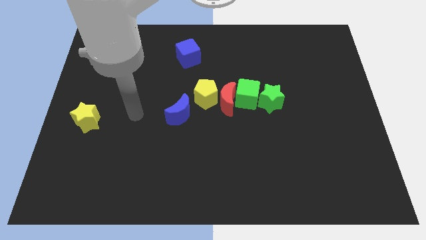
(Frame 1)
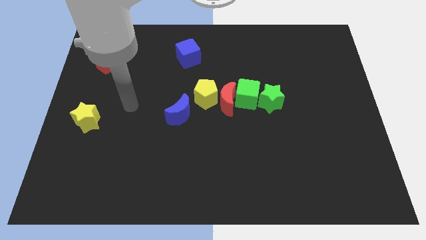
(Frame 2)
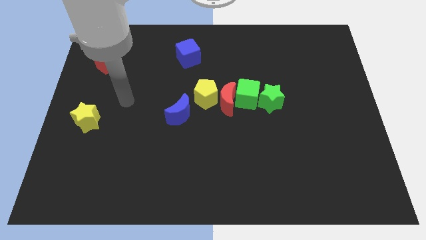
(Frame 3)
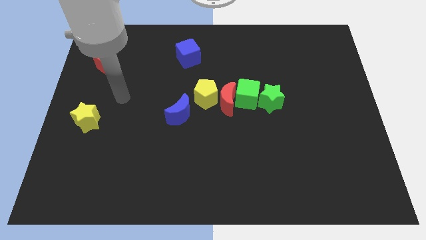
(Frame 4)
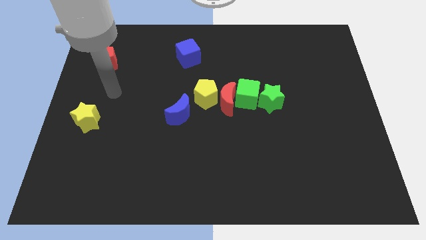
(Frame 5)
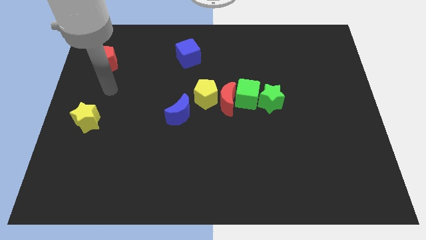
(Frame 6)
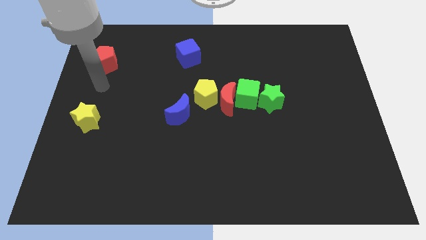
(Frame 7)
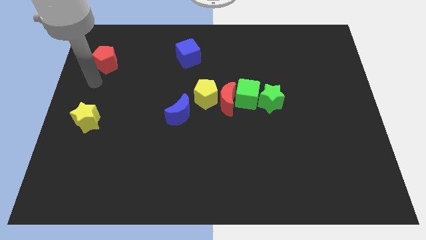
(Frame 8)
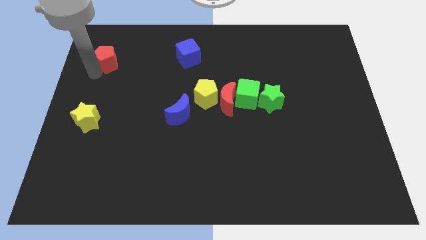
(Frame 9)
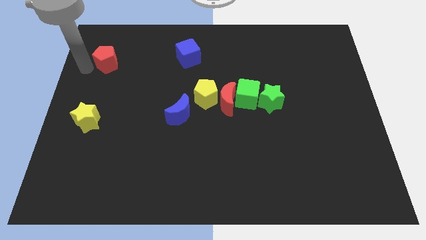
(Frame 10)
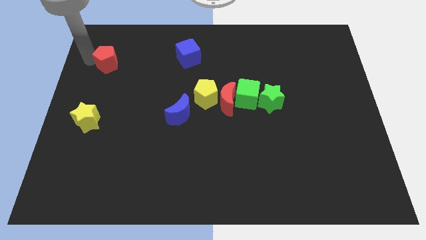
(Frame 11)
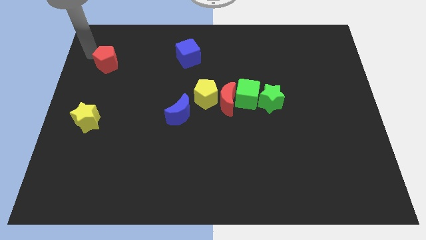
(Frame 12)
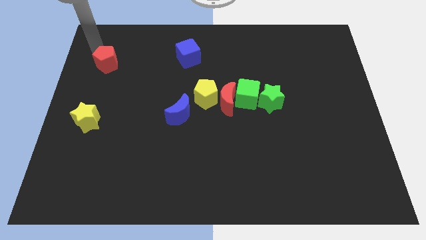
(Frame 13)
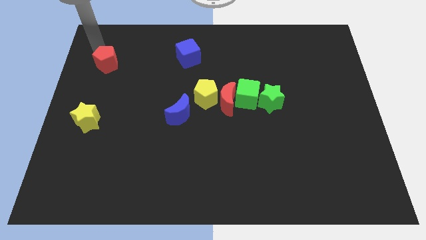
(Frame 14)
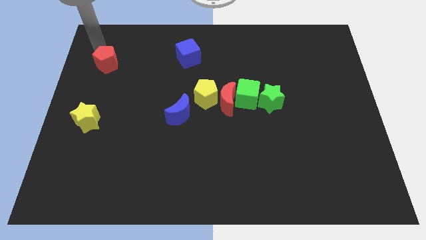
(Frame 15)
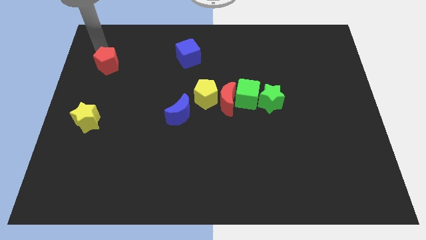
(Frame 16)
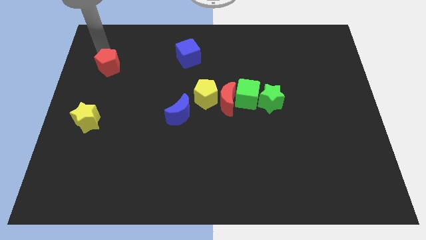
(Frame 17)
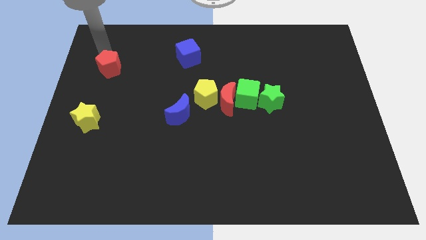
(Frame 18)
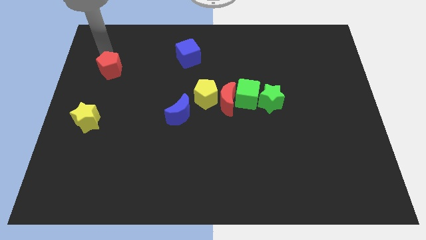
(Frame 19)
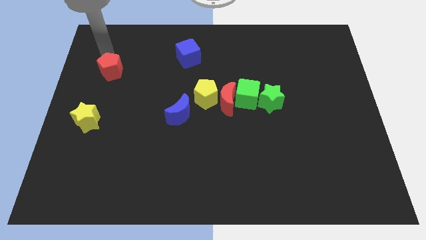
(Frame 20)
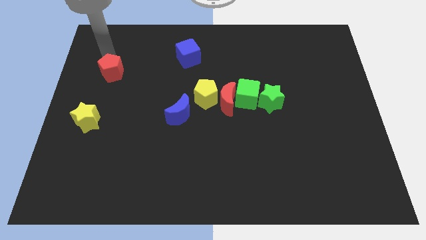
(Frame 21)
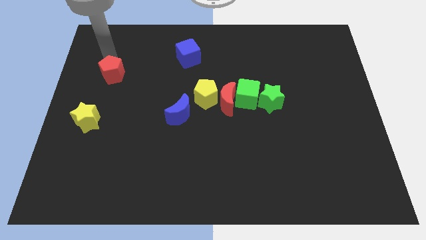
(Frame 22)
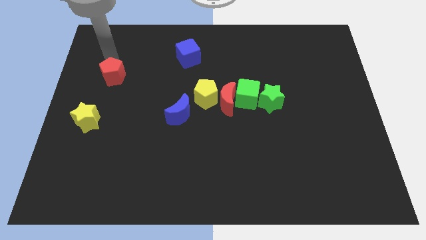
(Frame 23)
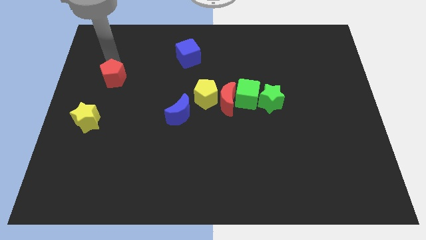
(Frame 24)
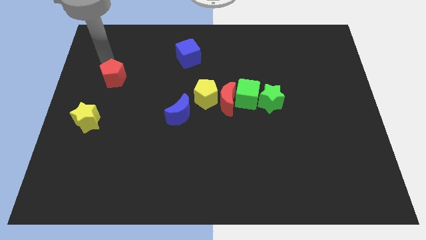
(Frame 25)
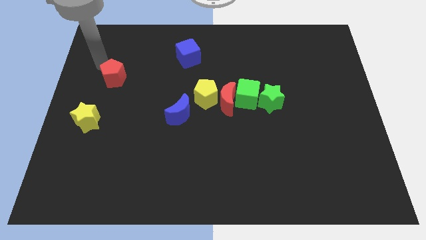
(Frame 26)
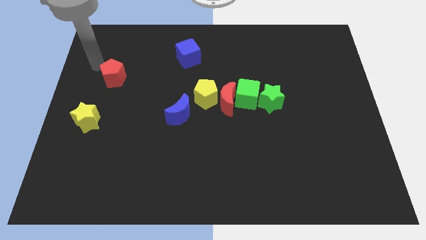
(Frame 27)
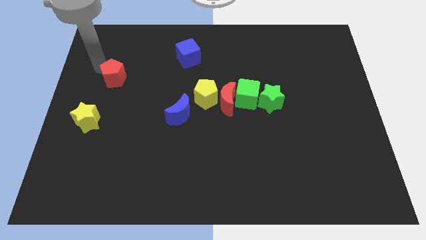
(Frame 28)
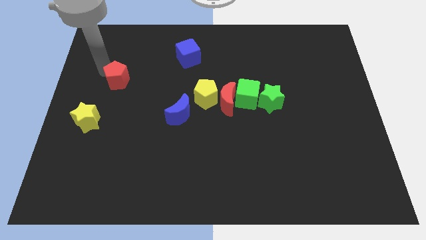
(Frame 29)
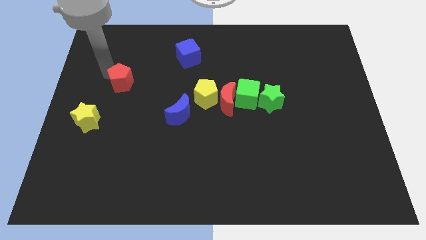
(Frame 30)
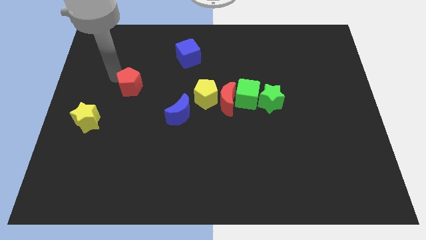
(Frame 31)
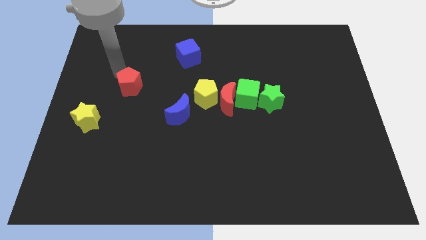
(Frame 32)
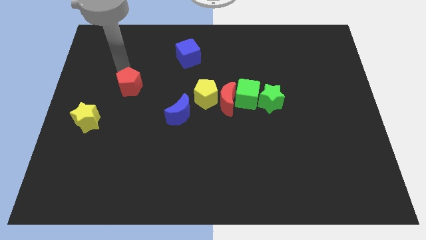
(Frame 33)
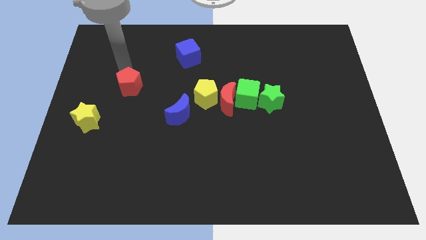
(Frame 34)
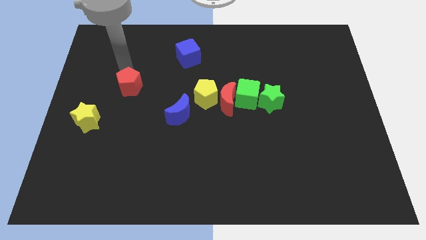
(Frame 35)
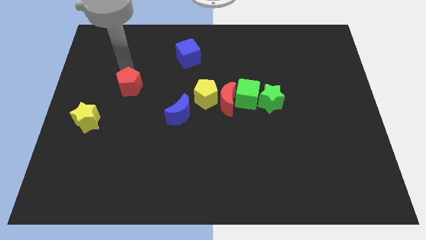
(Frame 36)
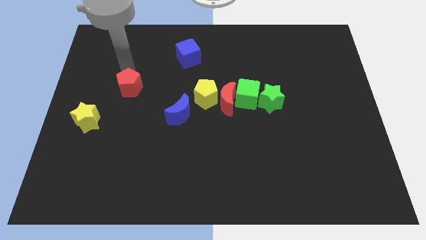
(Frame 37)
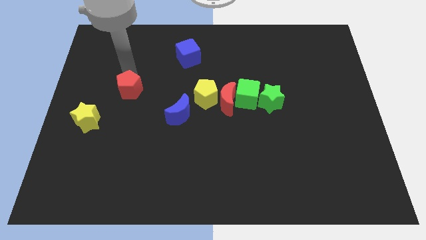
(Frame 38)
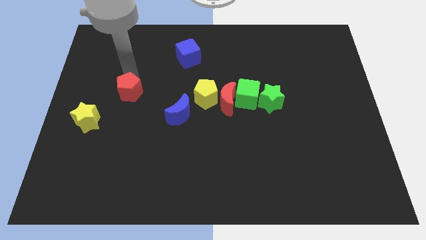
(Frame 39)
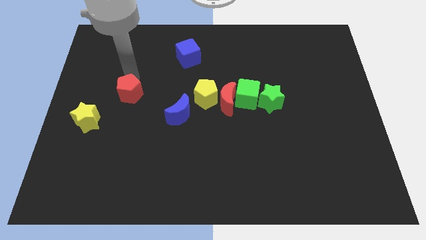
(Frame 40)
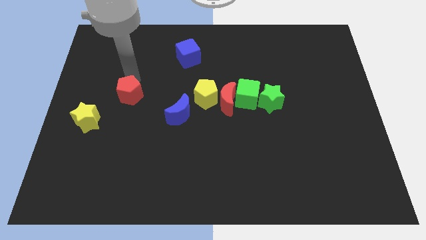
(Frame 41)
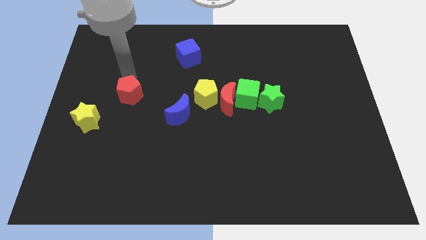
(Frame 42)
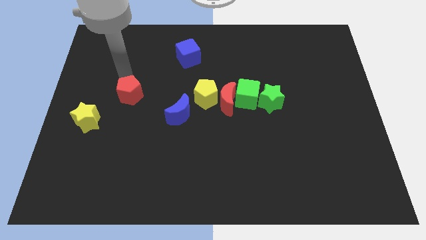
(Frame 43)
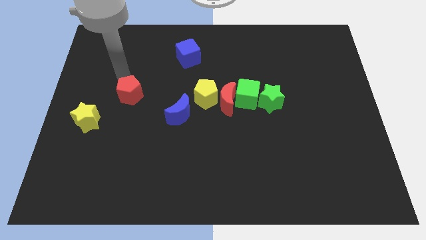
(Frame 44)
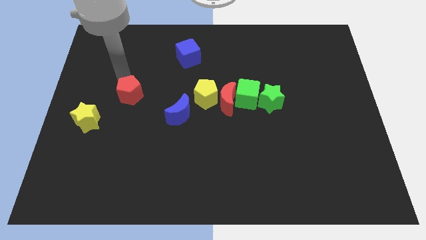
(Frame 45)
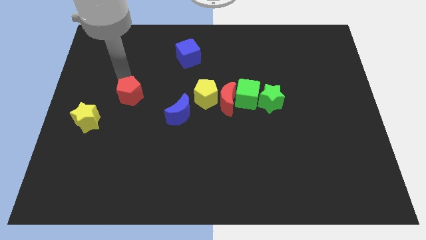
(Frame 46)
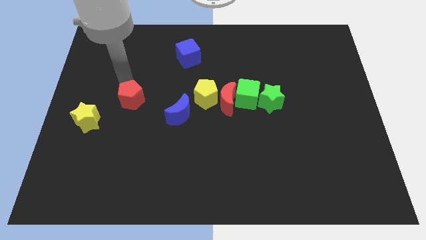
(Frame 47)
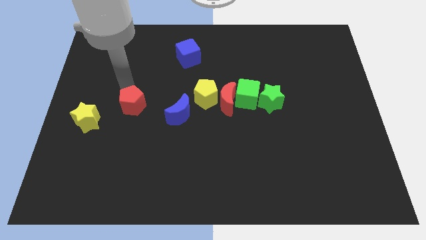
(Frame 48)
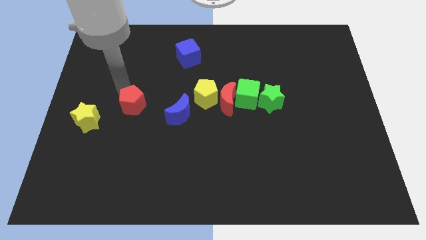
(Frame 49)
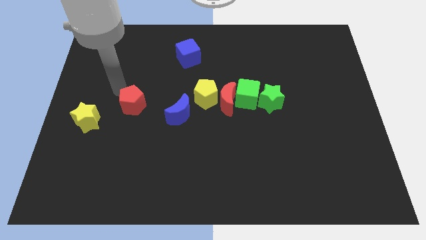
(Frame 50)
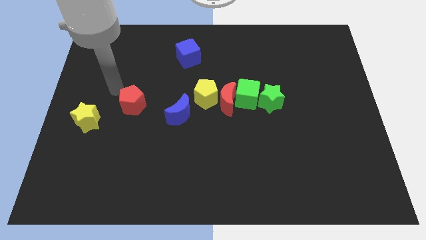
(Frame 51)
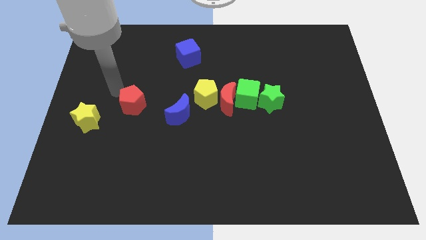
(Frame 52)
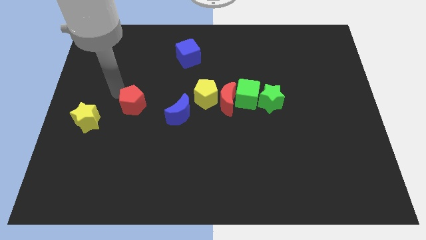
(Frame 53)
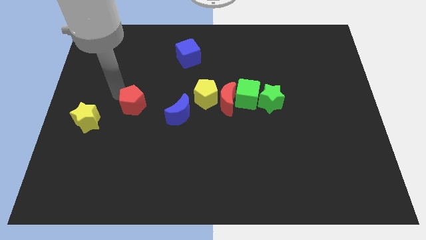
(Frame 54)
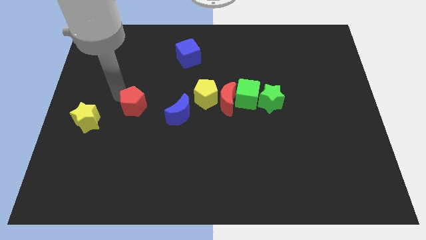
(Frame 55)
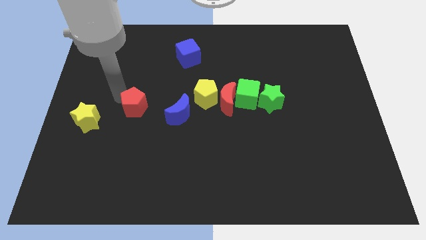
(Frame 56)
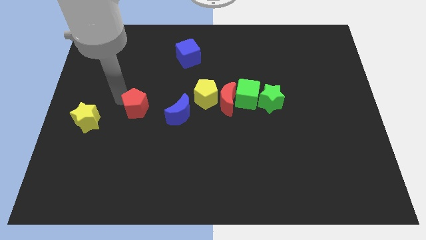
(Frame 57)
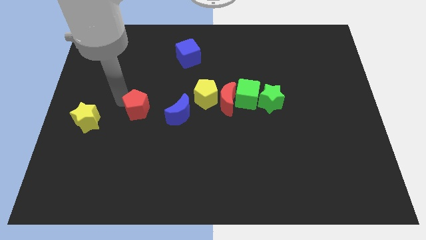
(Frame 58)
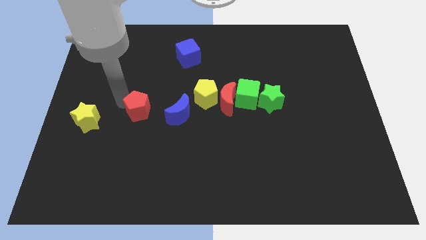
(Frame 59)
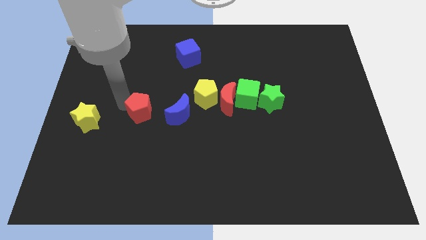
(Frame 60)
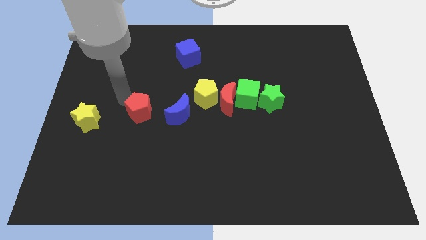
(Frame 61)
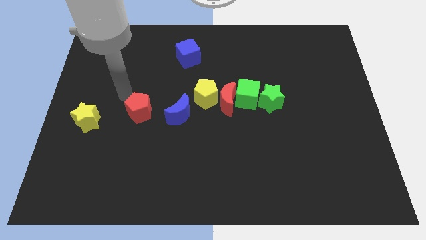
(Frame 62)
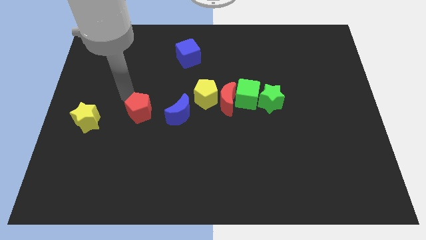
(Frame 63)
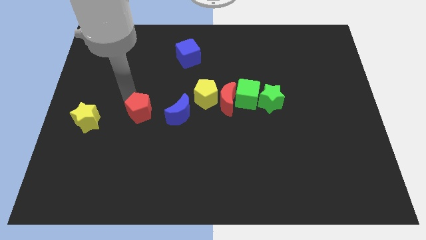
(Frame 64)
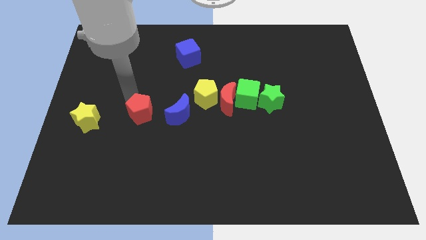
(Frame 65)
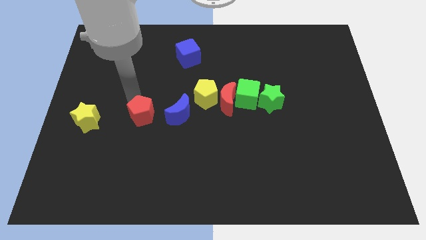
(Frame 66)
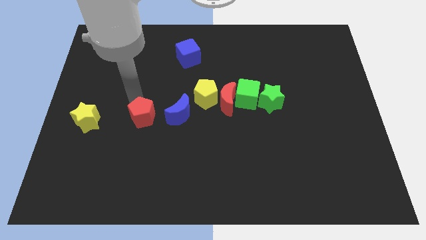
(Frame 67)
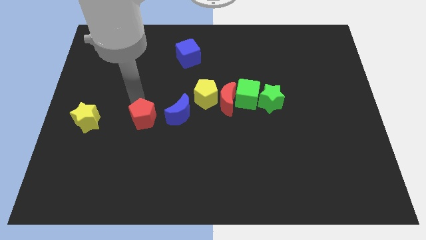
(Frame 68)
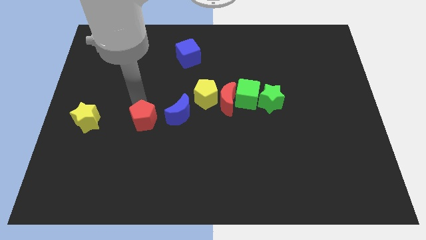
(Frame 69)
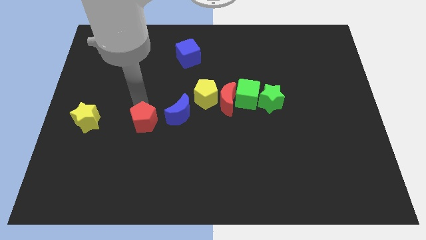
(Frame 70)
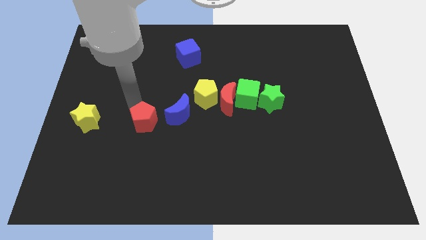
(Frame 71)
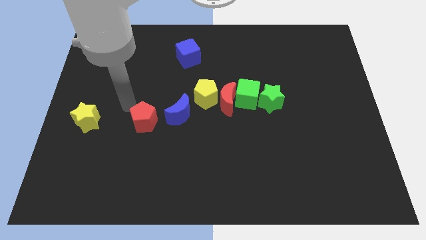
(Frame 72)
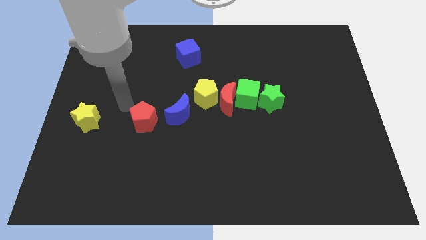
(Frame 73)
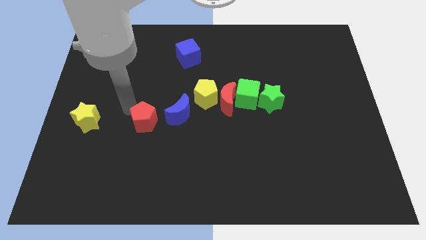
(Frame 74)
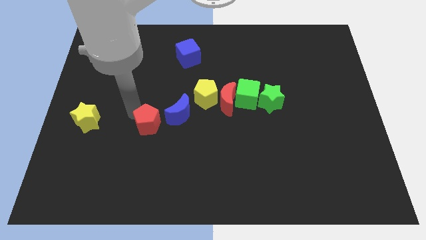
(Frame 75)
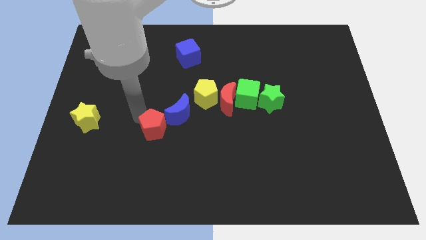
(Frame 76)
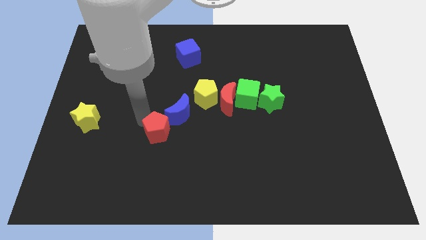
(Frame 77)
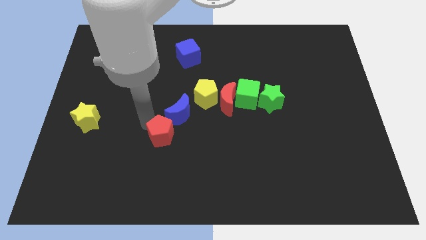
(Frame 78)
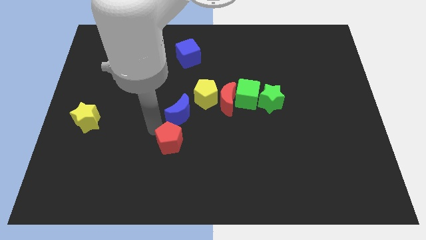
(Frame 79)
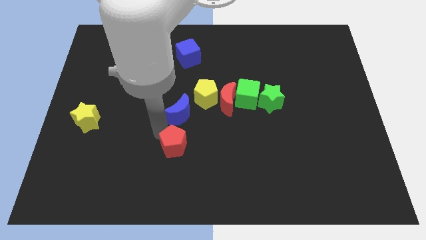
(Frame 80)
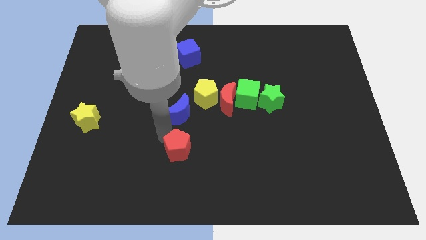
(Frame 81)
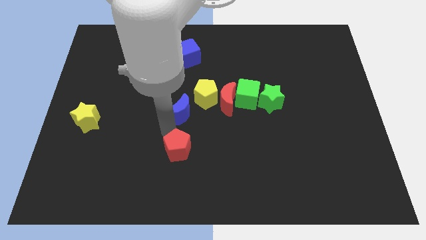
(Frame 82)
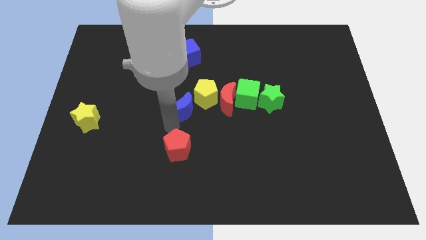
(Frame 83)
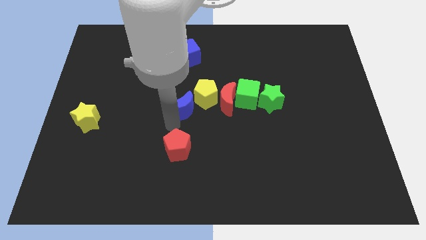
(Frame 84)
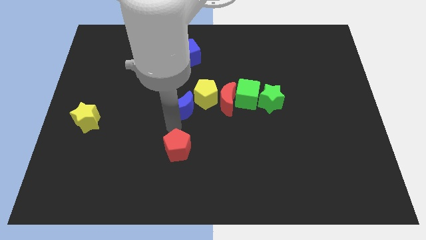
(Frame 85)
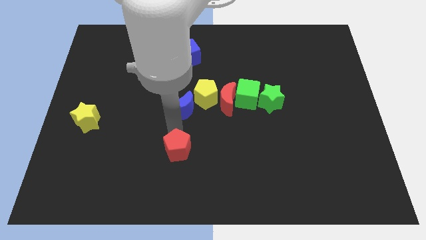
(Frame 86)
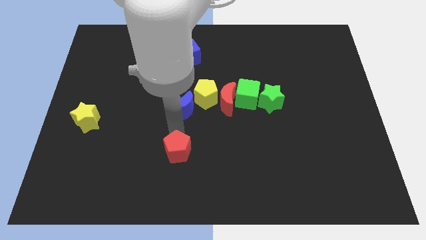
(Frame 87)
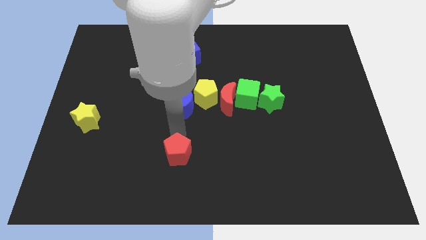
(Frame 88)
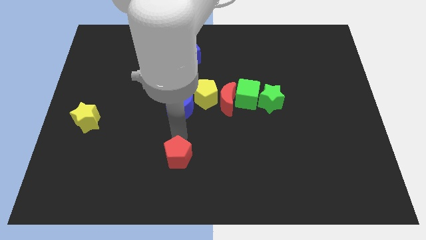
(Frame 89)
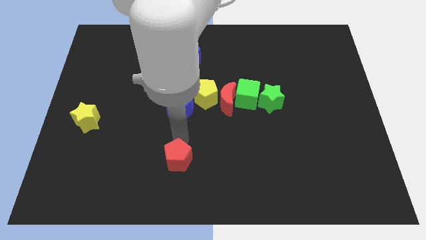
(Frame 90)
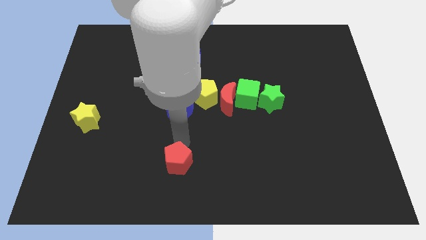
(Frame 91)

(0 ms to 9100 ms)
slide the red pentagon to the bottom
